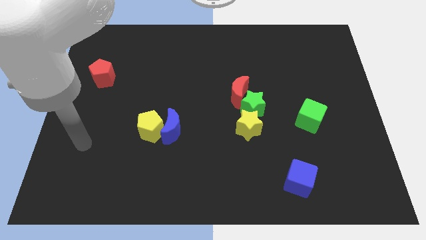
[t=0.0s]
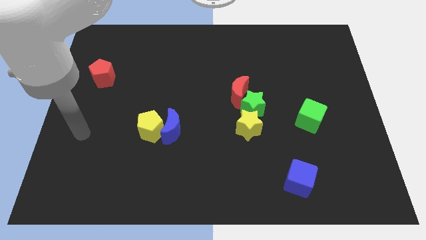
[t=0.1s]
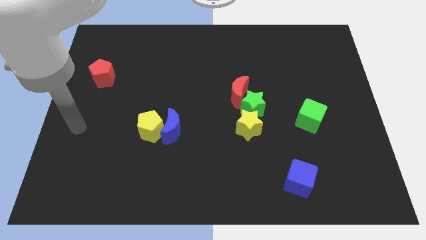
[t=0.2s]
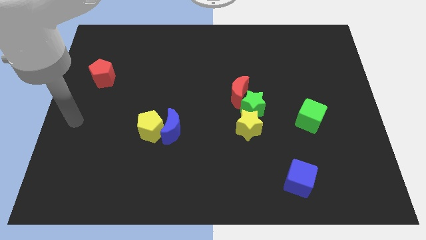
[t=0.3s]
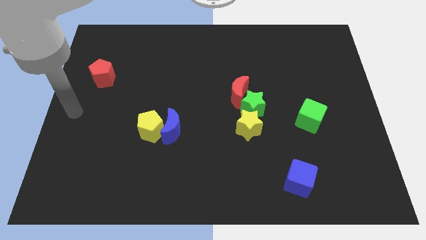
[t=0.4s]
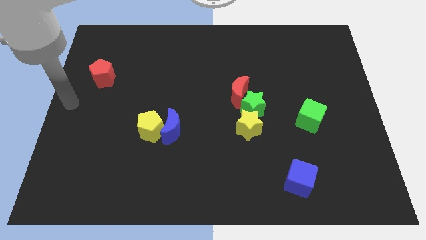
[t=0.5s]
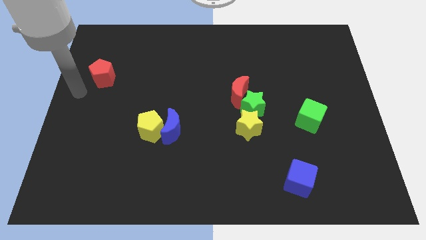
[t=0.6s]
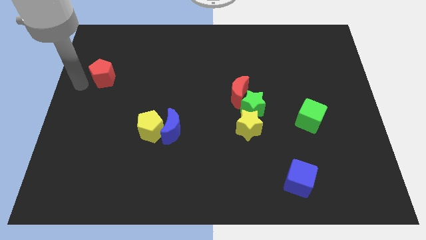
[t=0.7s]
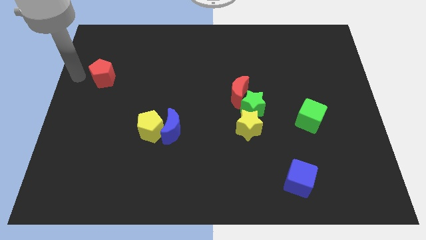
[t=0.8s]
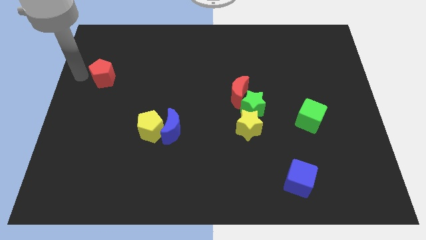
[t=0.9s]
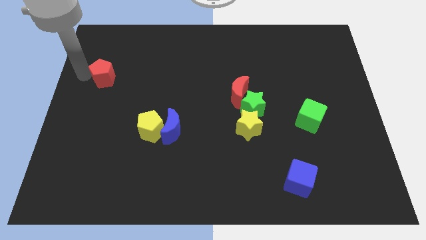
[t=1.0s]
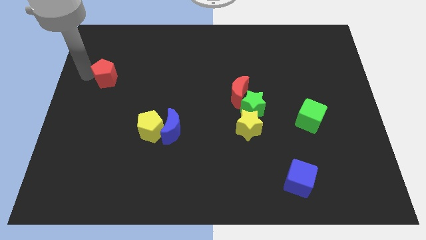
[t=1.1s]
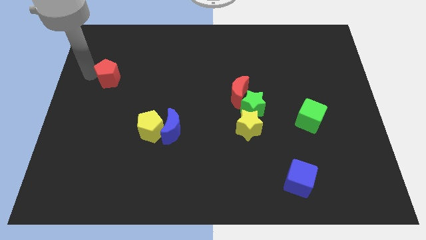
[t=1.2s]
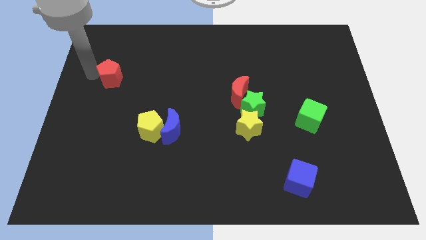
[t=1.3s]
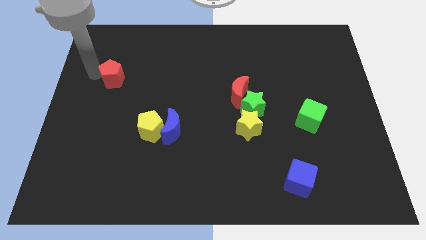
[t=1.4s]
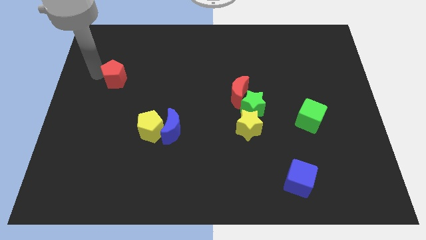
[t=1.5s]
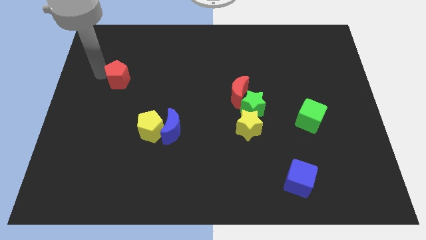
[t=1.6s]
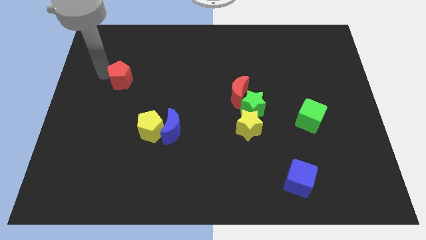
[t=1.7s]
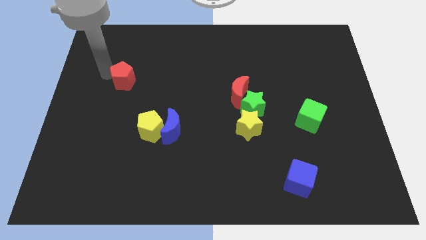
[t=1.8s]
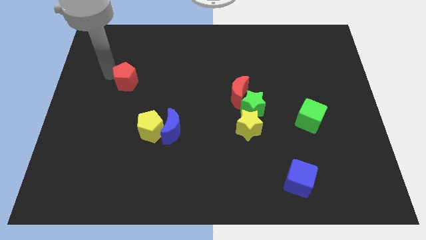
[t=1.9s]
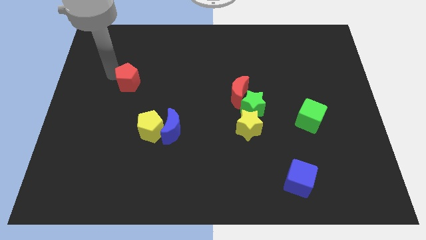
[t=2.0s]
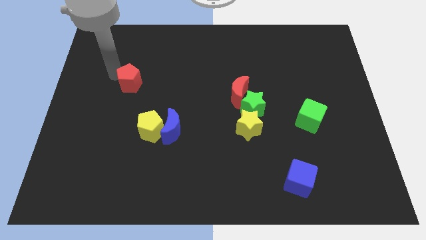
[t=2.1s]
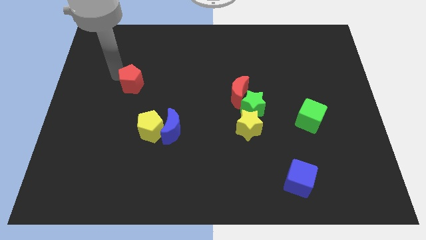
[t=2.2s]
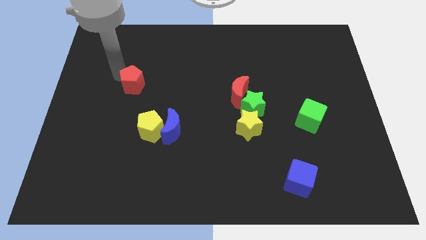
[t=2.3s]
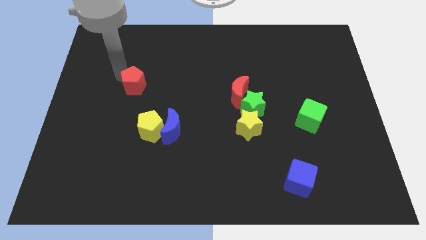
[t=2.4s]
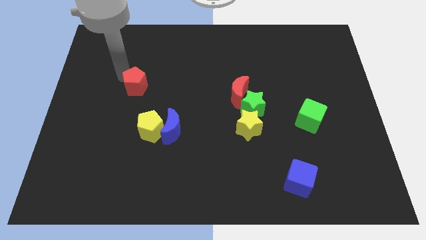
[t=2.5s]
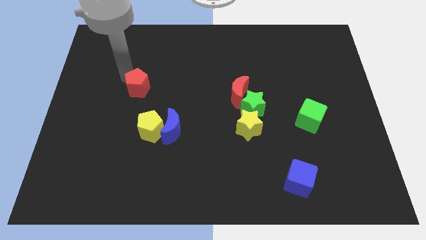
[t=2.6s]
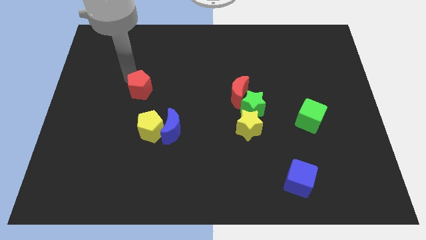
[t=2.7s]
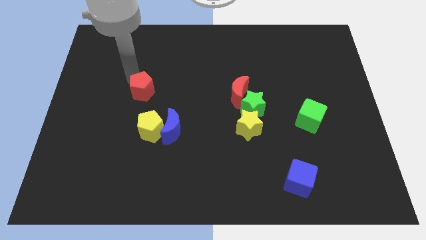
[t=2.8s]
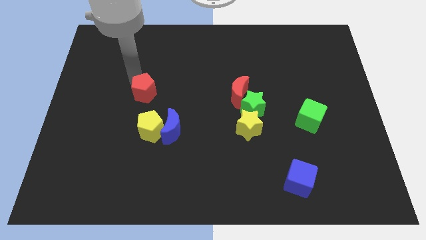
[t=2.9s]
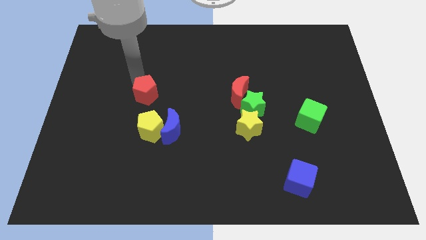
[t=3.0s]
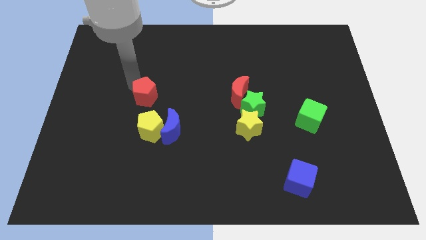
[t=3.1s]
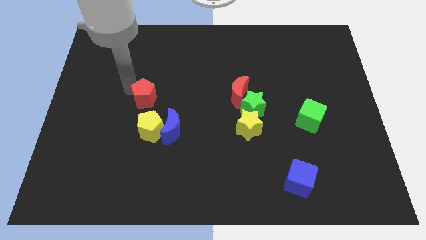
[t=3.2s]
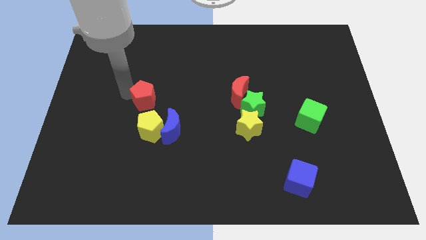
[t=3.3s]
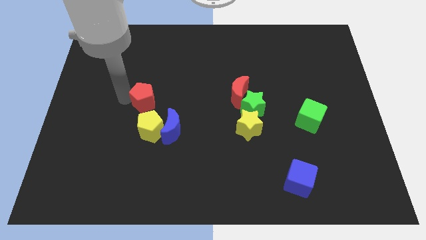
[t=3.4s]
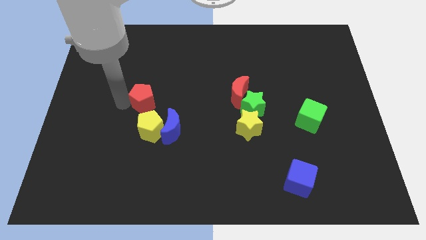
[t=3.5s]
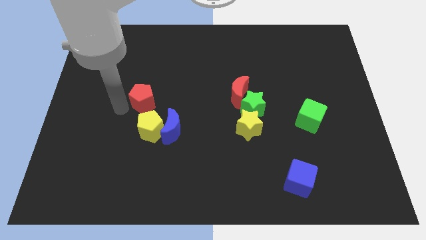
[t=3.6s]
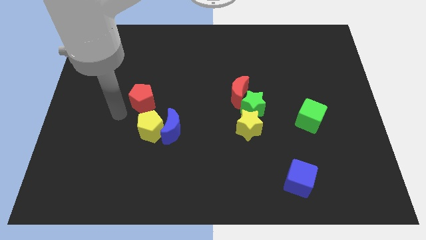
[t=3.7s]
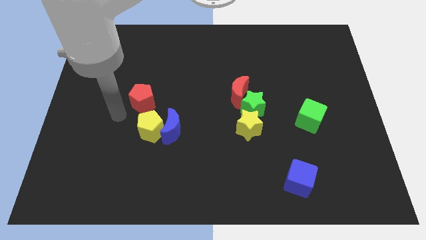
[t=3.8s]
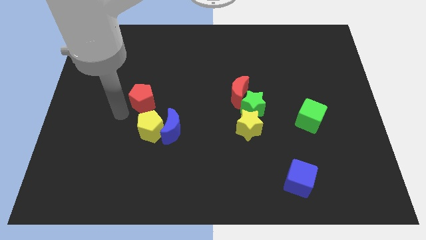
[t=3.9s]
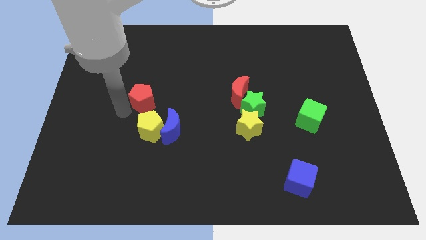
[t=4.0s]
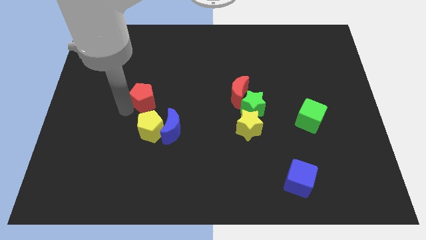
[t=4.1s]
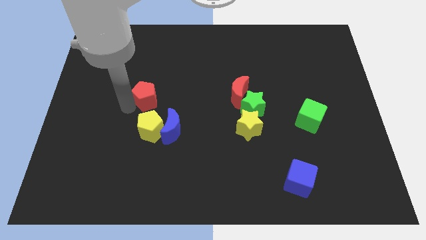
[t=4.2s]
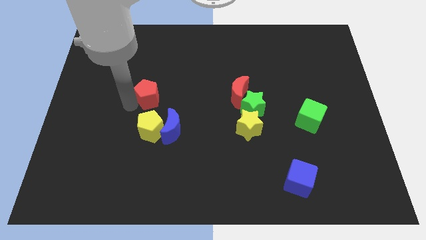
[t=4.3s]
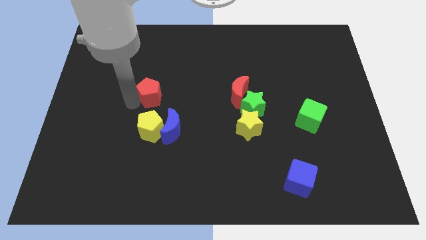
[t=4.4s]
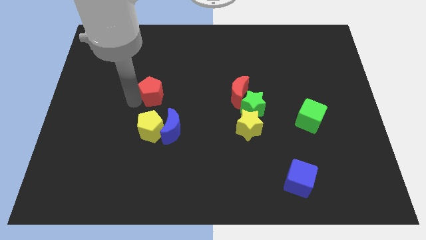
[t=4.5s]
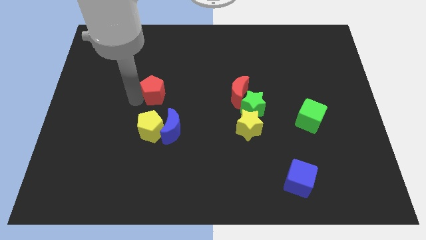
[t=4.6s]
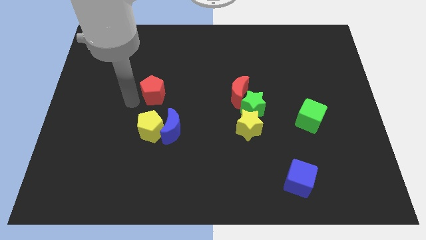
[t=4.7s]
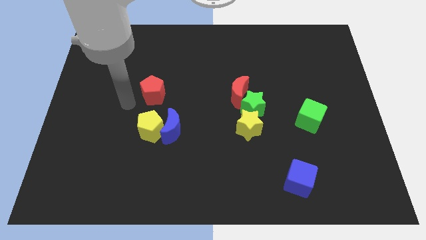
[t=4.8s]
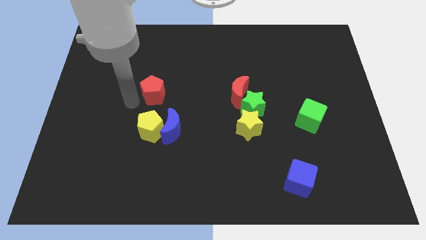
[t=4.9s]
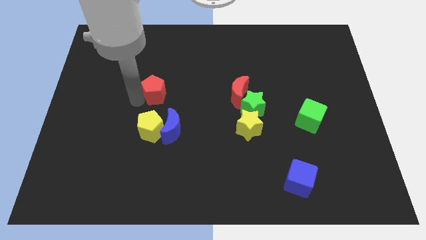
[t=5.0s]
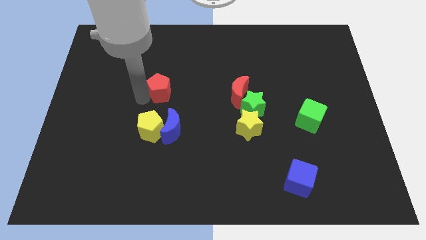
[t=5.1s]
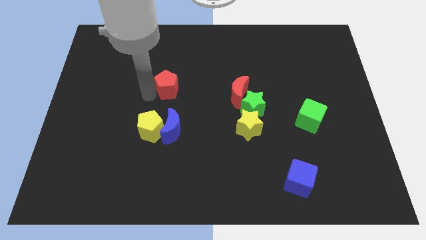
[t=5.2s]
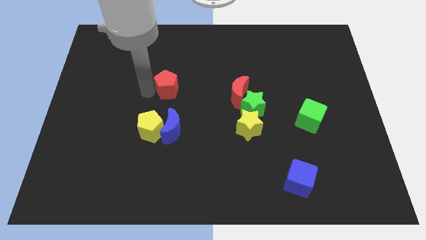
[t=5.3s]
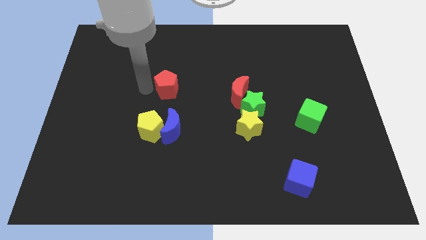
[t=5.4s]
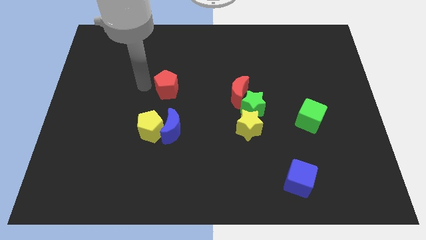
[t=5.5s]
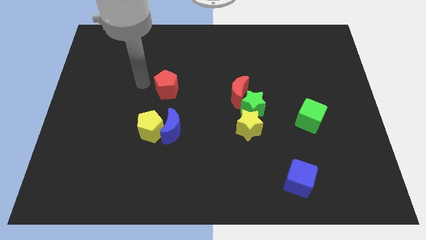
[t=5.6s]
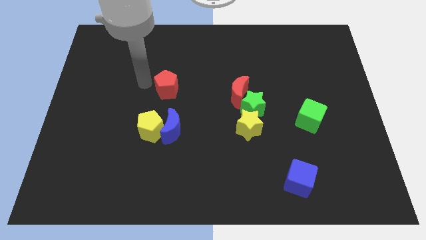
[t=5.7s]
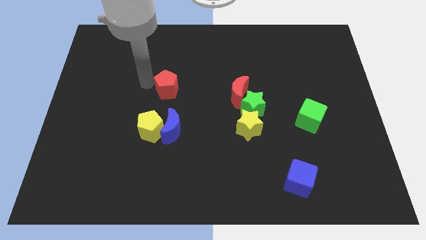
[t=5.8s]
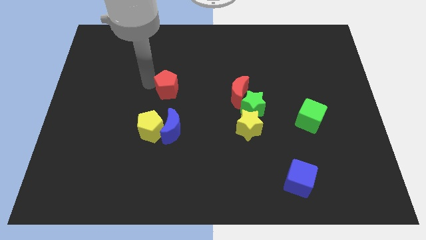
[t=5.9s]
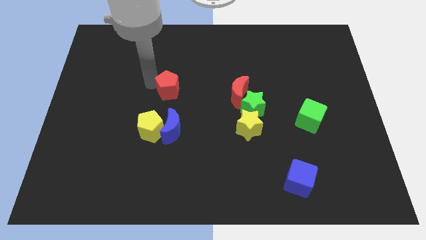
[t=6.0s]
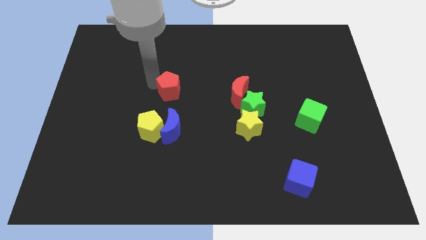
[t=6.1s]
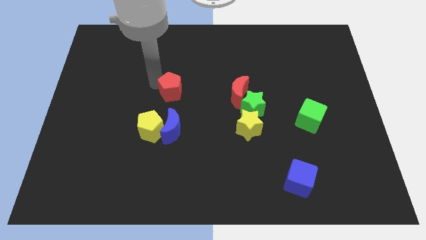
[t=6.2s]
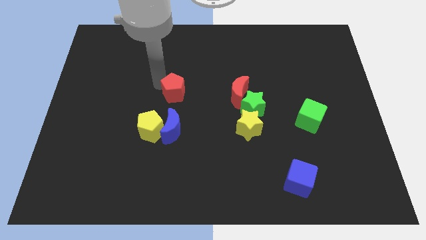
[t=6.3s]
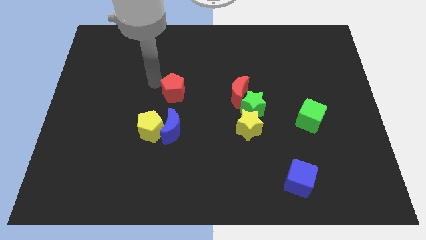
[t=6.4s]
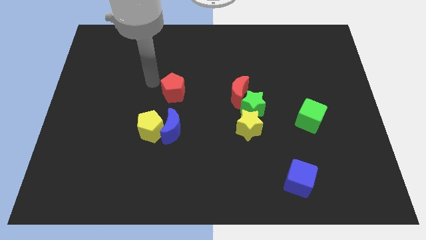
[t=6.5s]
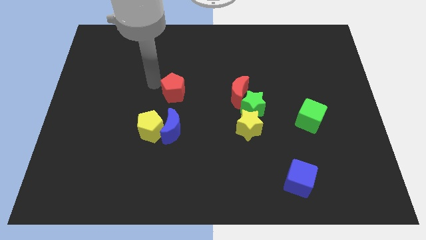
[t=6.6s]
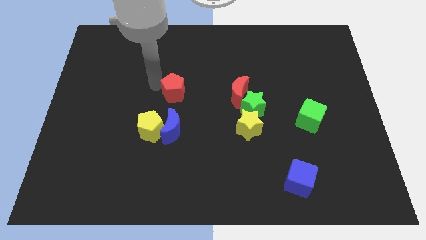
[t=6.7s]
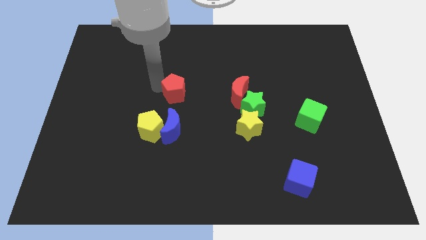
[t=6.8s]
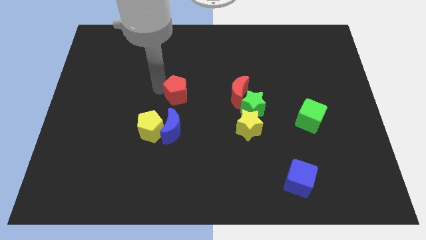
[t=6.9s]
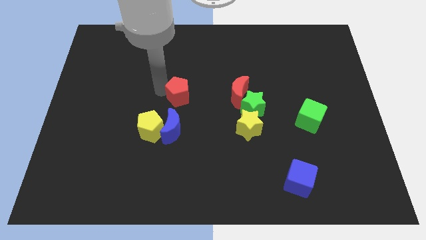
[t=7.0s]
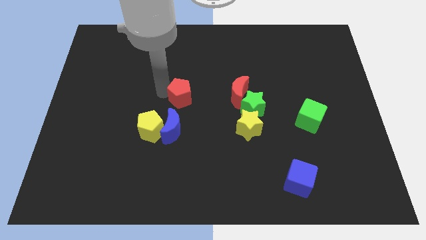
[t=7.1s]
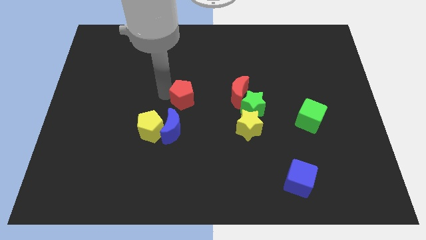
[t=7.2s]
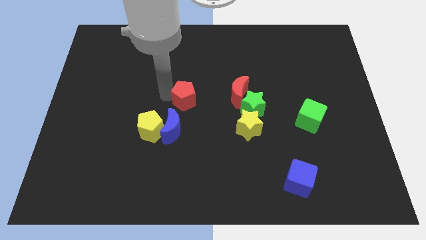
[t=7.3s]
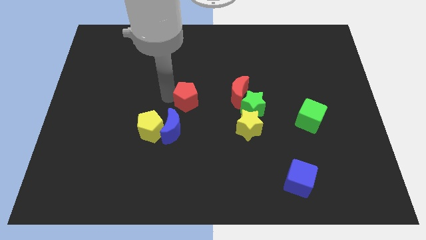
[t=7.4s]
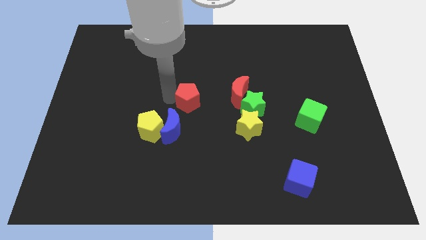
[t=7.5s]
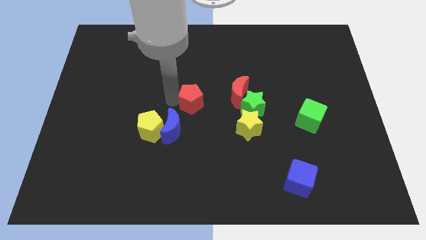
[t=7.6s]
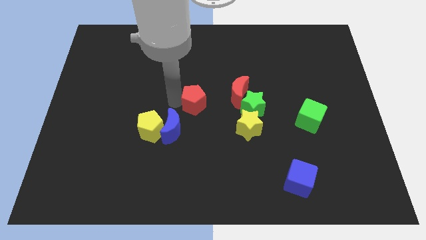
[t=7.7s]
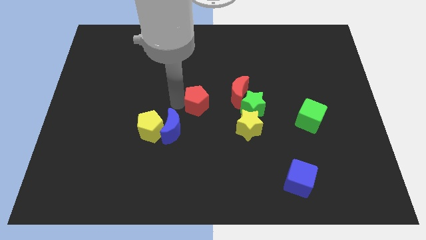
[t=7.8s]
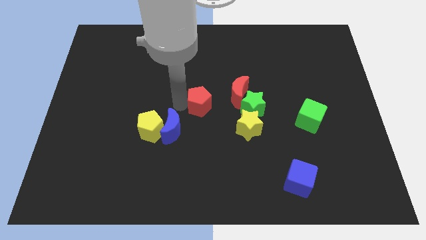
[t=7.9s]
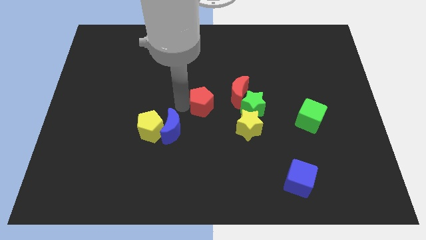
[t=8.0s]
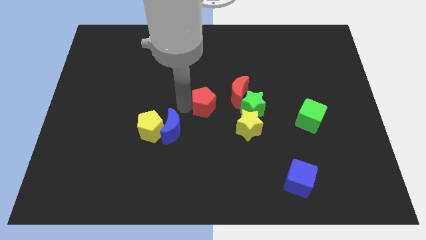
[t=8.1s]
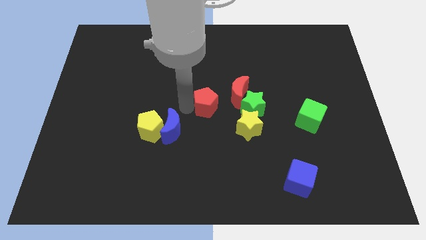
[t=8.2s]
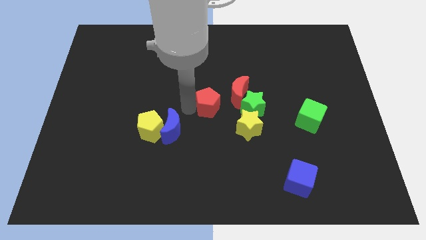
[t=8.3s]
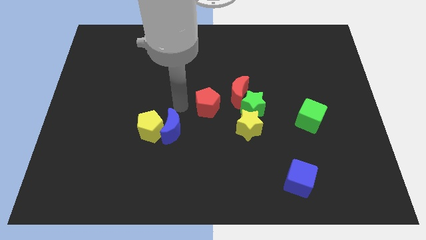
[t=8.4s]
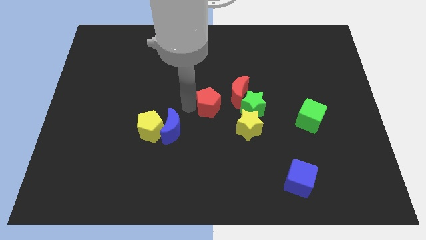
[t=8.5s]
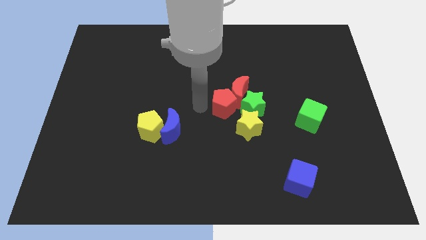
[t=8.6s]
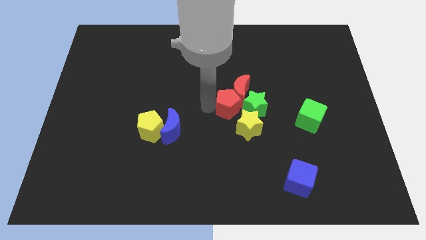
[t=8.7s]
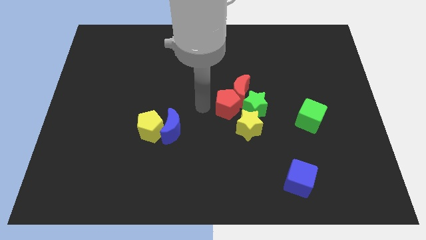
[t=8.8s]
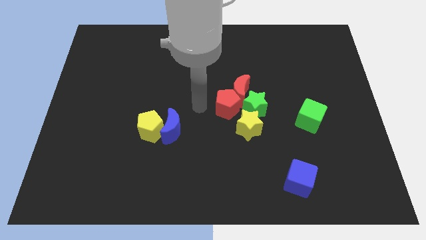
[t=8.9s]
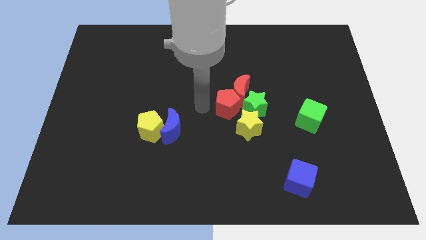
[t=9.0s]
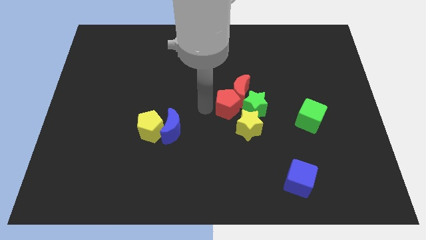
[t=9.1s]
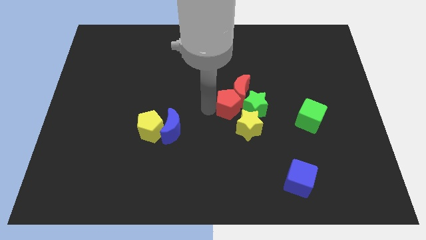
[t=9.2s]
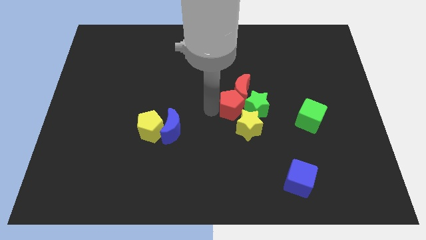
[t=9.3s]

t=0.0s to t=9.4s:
slide the red pentagon close to the green star
